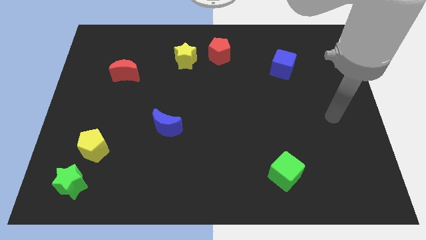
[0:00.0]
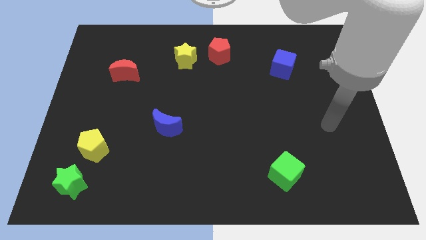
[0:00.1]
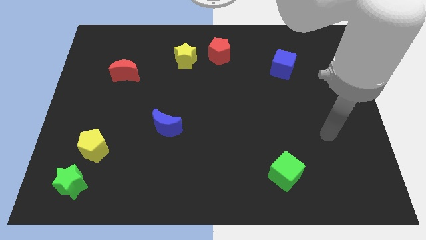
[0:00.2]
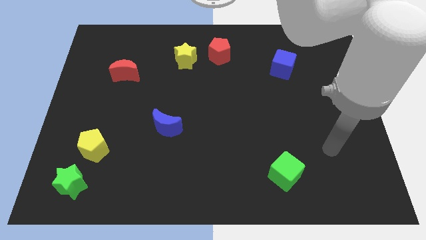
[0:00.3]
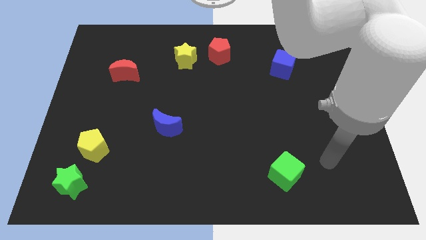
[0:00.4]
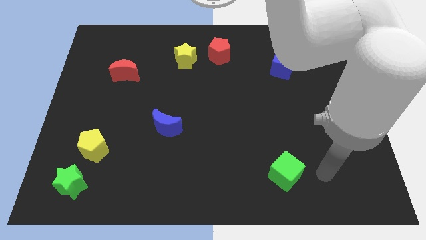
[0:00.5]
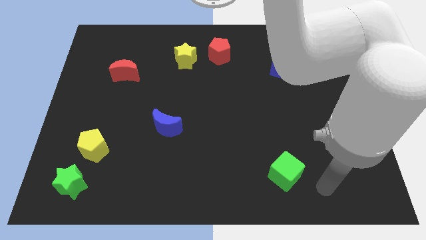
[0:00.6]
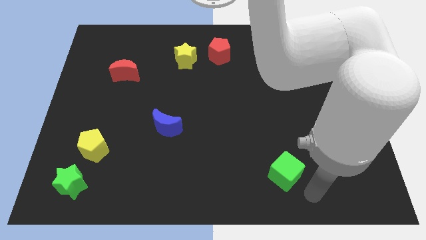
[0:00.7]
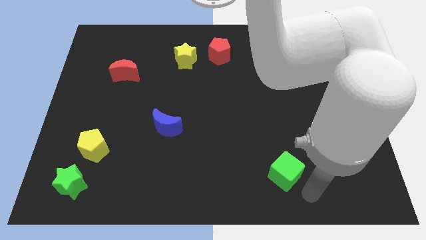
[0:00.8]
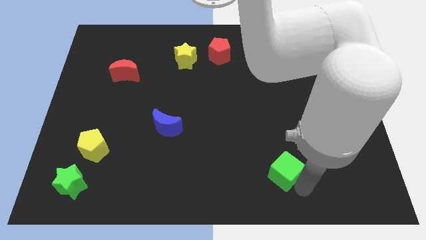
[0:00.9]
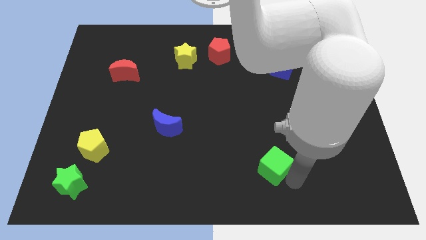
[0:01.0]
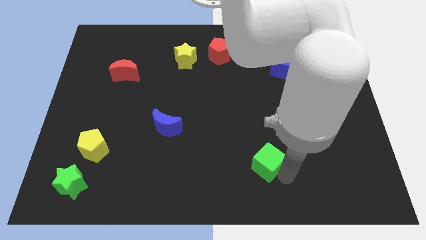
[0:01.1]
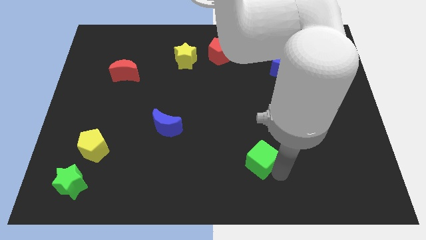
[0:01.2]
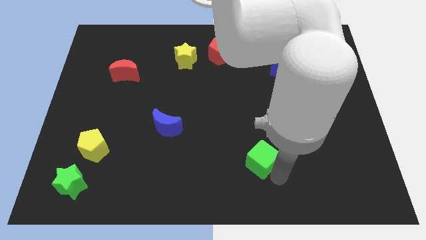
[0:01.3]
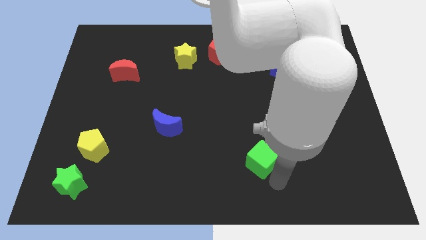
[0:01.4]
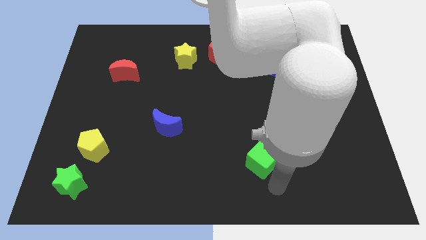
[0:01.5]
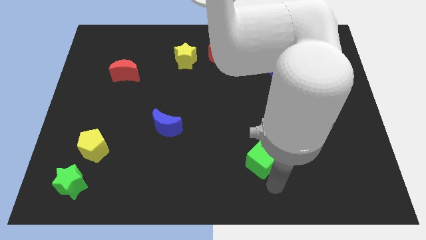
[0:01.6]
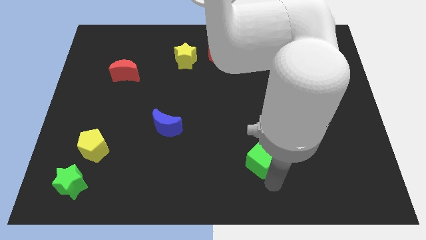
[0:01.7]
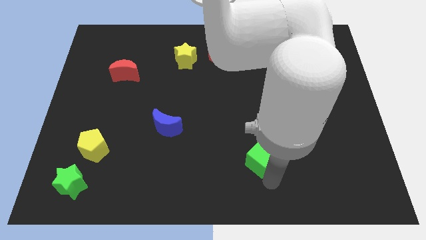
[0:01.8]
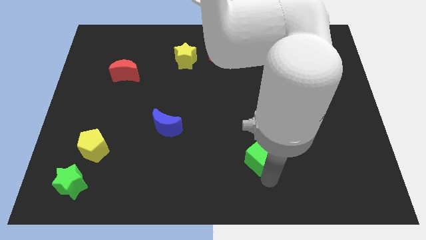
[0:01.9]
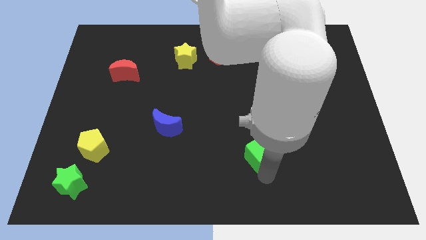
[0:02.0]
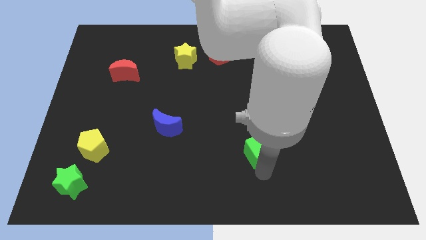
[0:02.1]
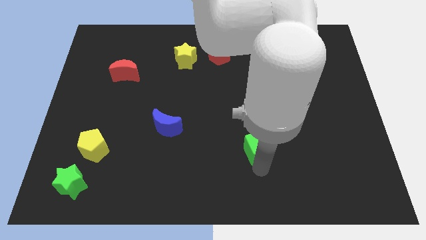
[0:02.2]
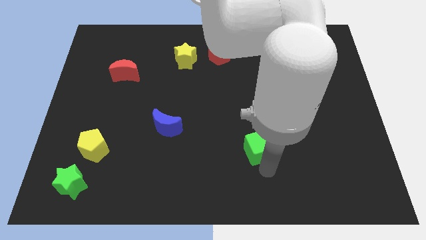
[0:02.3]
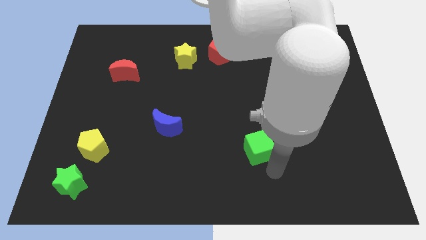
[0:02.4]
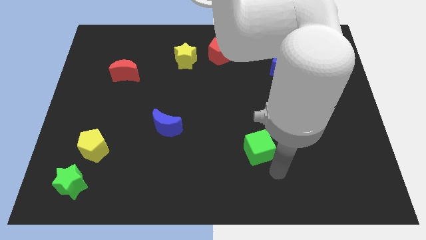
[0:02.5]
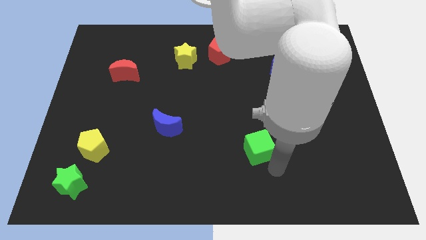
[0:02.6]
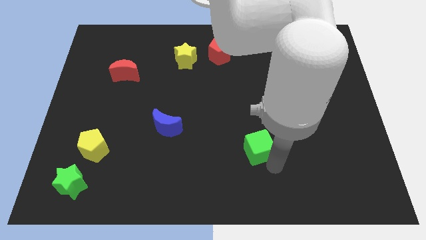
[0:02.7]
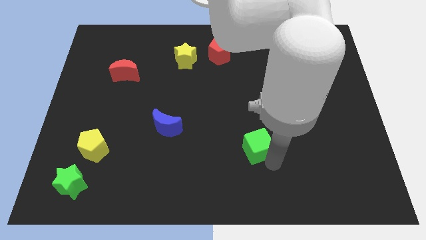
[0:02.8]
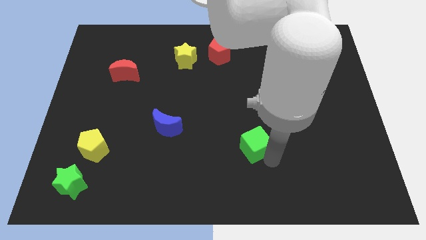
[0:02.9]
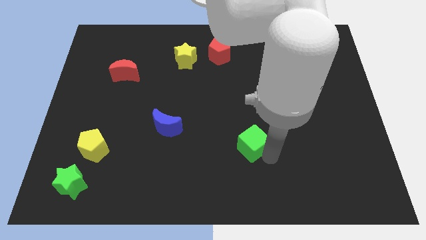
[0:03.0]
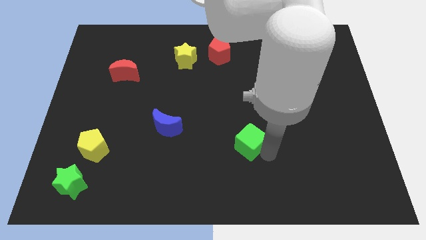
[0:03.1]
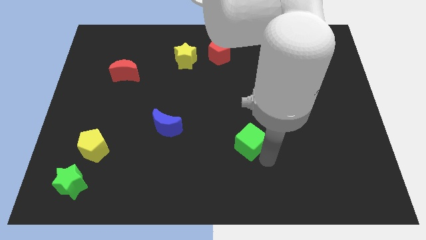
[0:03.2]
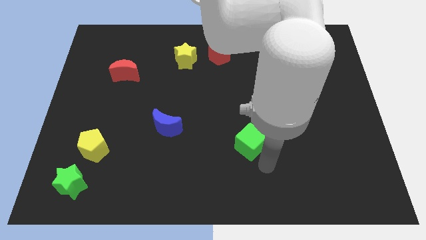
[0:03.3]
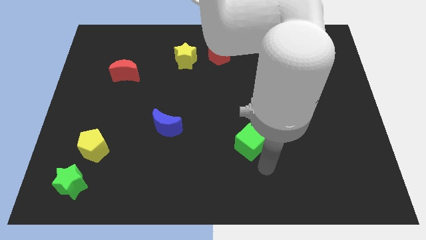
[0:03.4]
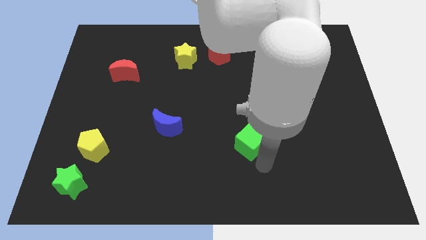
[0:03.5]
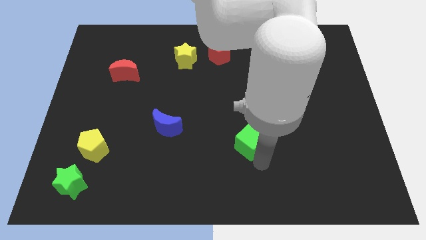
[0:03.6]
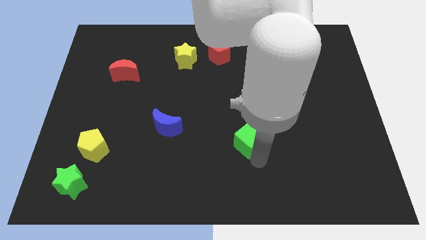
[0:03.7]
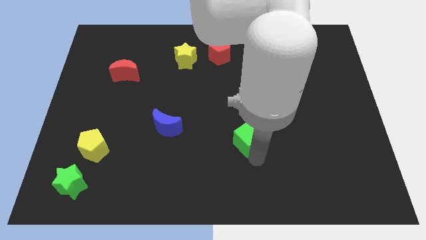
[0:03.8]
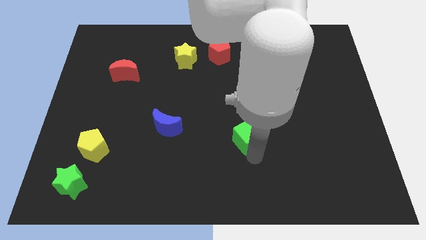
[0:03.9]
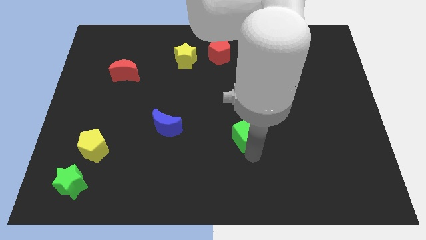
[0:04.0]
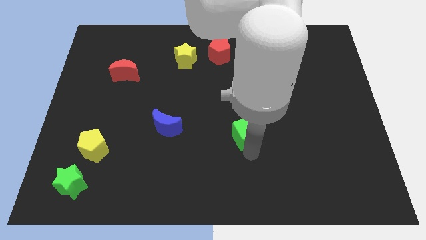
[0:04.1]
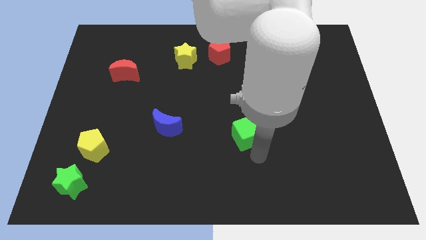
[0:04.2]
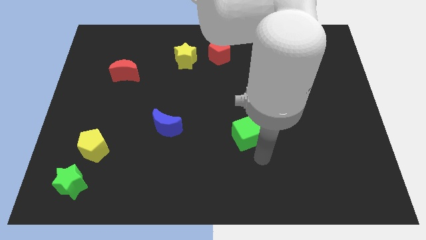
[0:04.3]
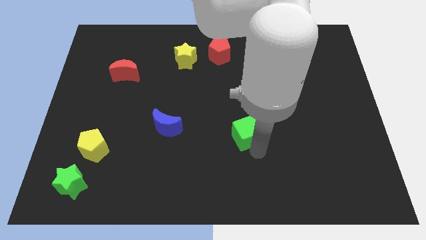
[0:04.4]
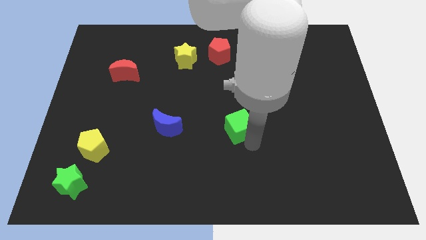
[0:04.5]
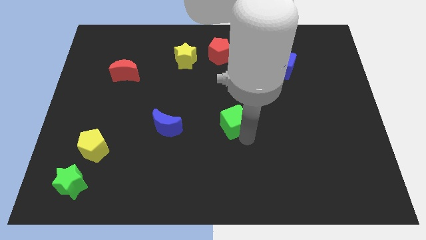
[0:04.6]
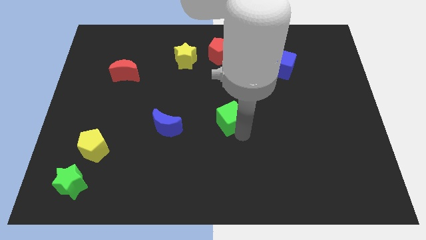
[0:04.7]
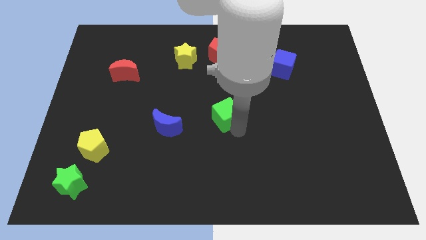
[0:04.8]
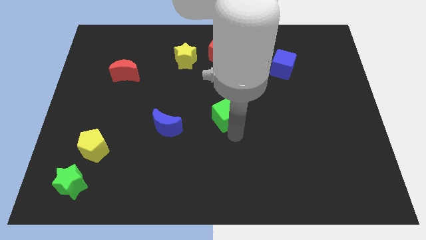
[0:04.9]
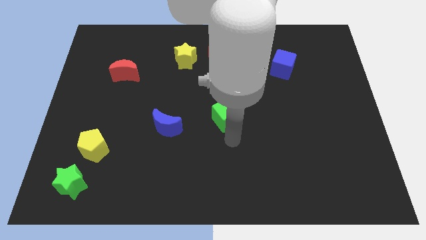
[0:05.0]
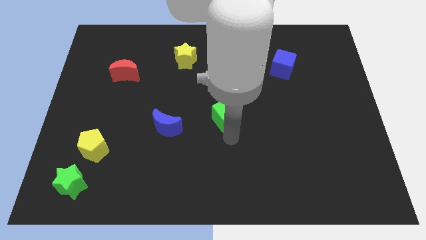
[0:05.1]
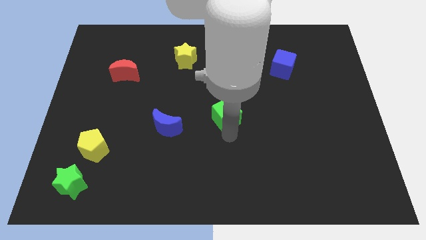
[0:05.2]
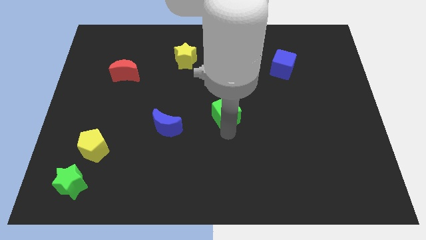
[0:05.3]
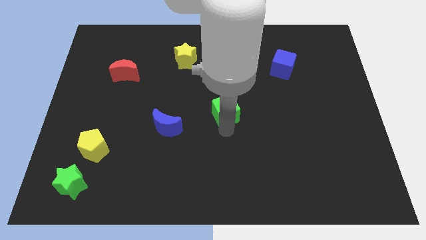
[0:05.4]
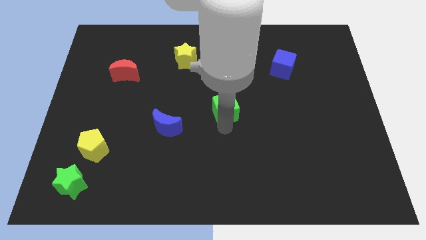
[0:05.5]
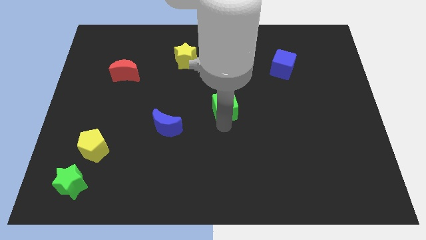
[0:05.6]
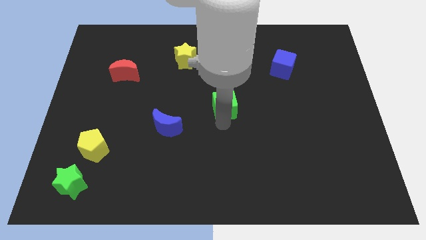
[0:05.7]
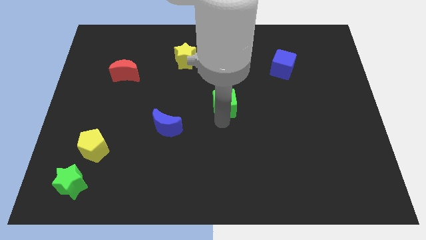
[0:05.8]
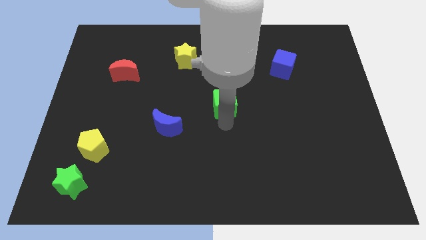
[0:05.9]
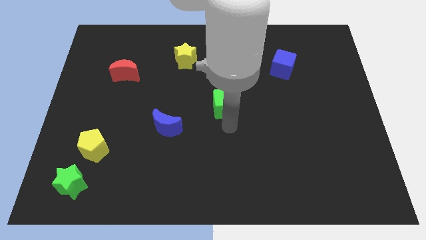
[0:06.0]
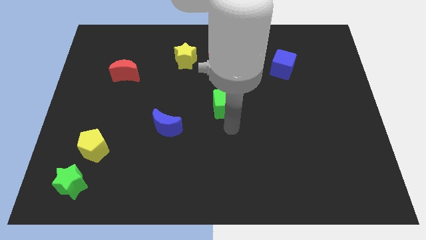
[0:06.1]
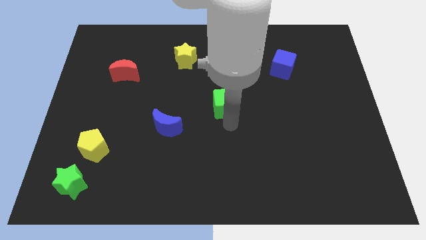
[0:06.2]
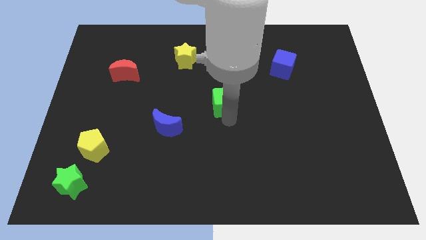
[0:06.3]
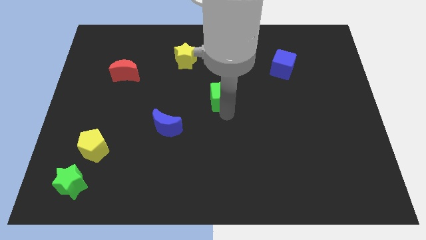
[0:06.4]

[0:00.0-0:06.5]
put the green cube below the red pentagon

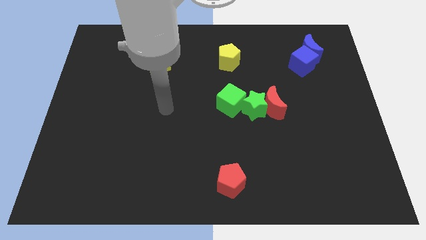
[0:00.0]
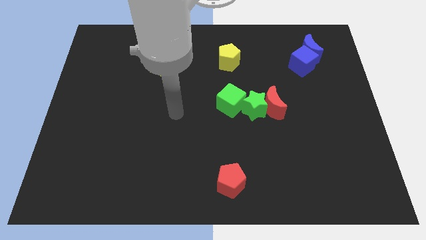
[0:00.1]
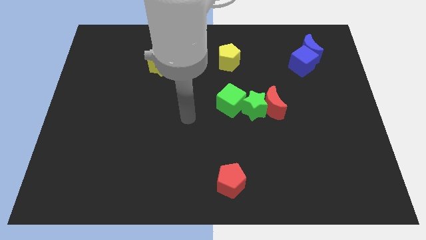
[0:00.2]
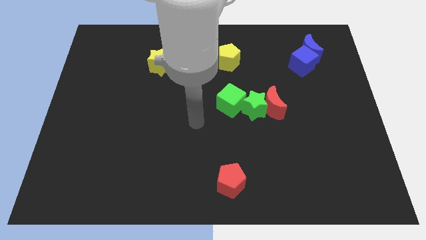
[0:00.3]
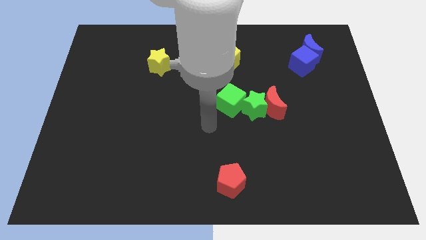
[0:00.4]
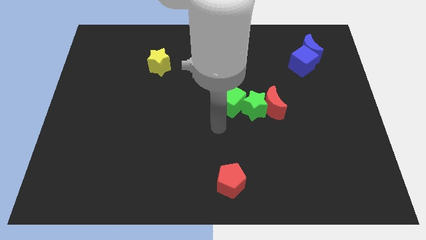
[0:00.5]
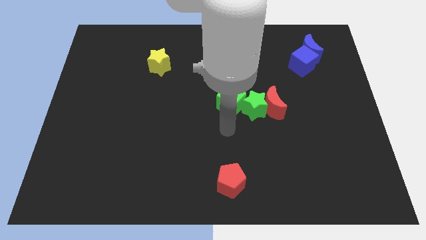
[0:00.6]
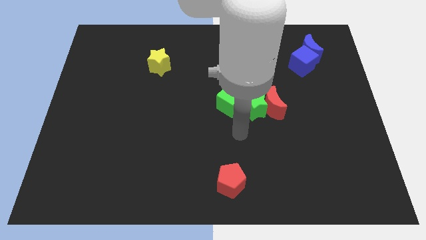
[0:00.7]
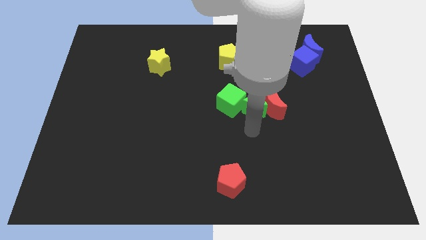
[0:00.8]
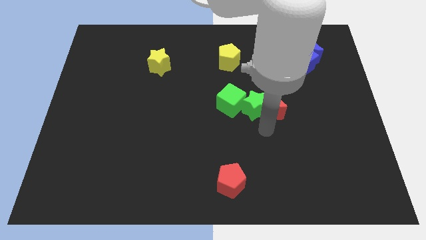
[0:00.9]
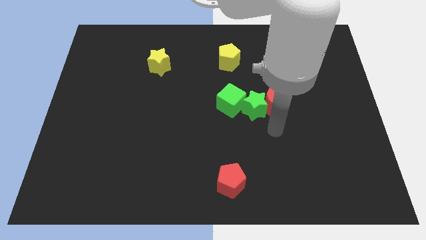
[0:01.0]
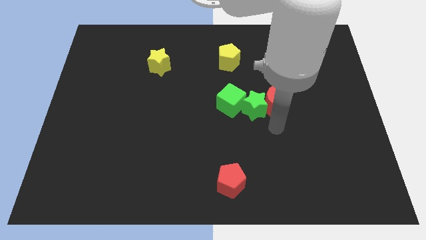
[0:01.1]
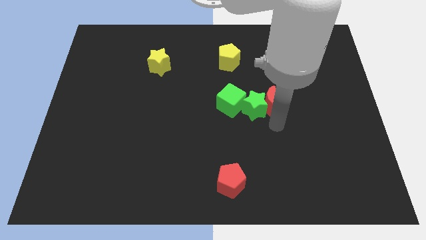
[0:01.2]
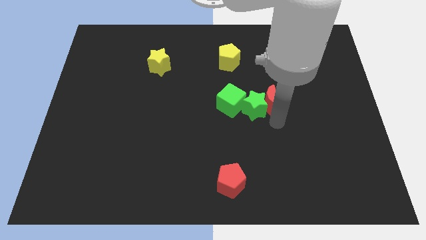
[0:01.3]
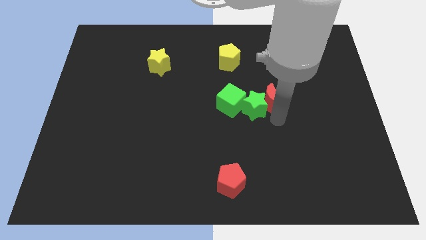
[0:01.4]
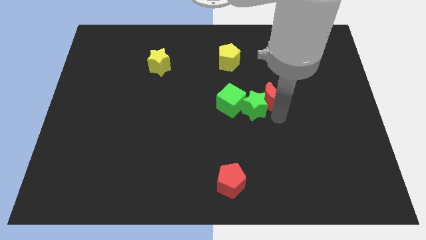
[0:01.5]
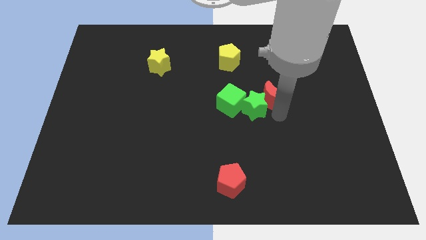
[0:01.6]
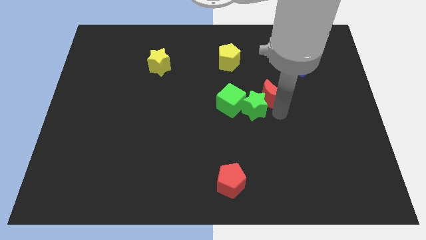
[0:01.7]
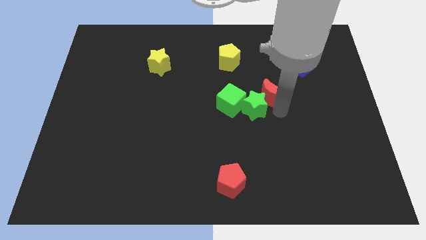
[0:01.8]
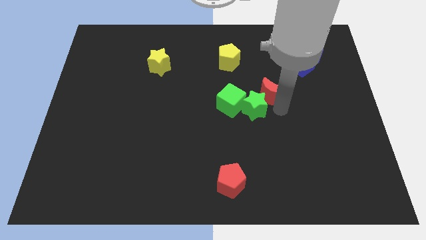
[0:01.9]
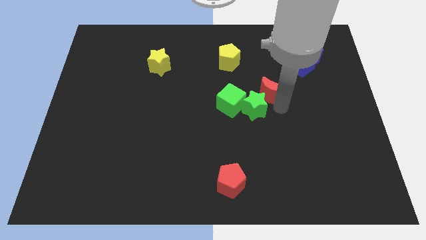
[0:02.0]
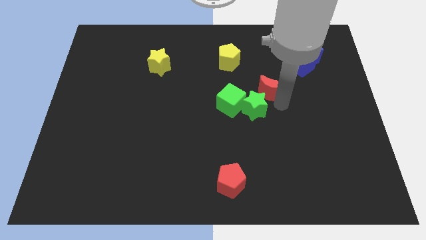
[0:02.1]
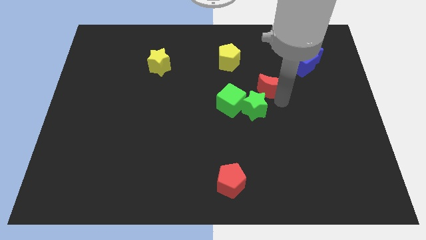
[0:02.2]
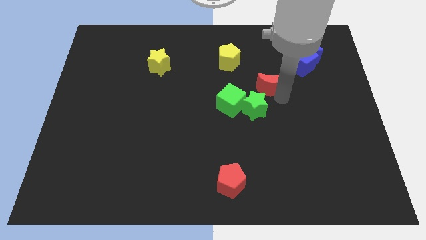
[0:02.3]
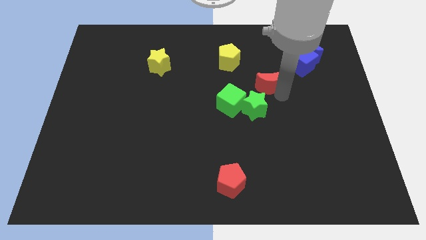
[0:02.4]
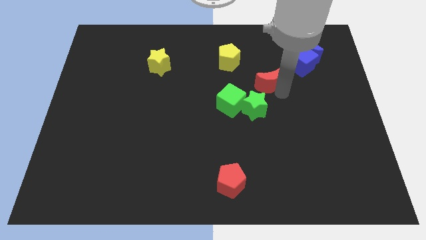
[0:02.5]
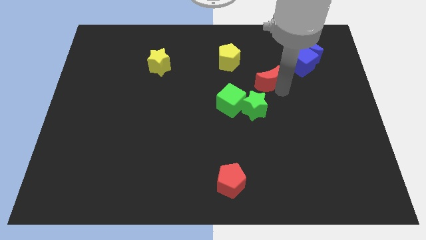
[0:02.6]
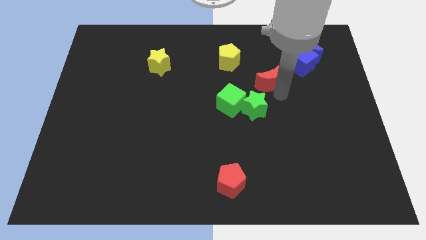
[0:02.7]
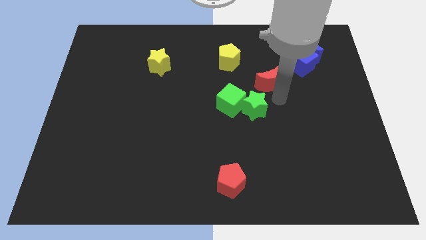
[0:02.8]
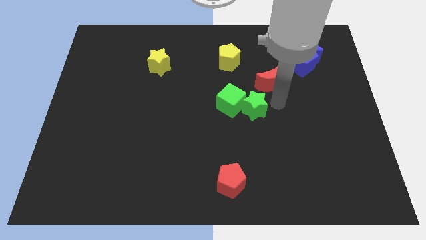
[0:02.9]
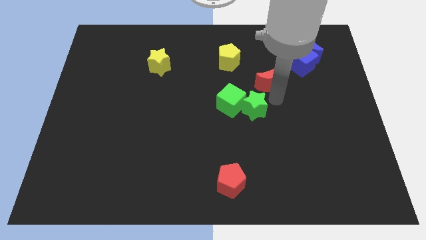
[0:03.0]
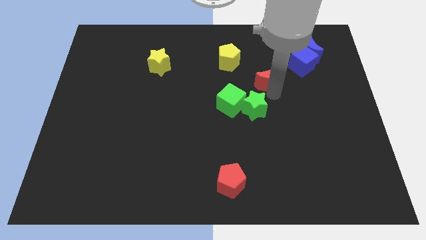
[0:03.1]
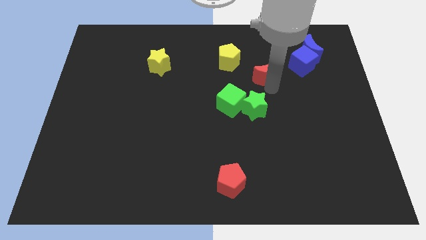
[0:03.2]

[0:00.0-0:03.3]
push the red moon to the left side of the blue cube
